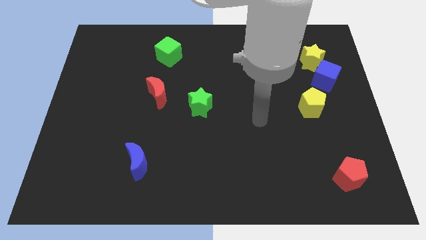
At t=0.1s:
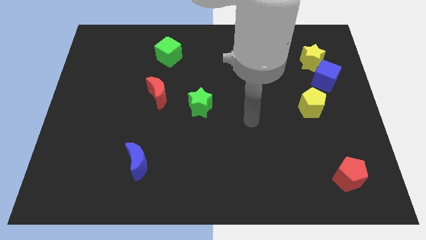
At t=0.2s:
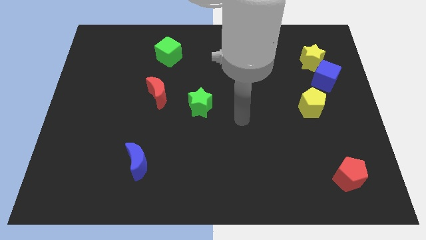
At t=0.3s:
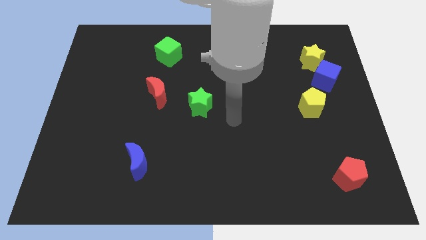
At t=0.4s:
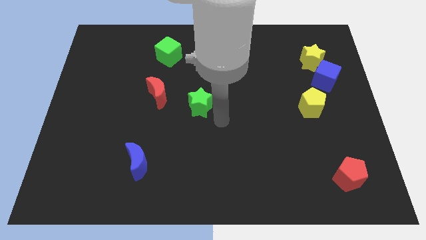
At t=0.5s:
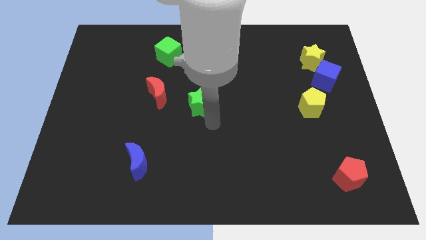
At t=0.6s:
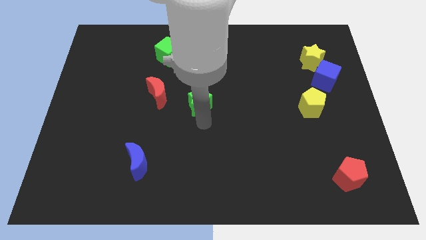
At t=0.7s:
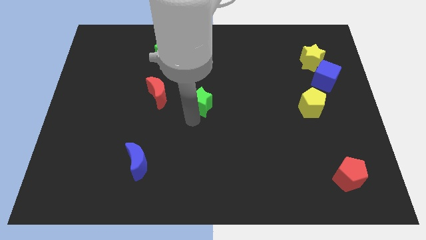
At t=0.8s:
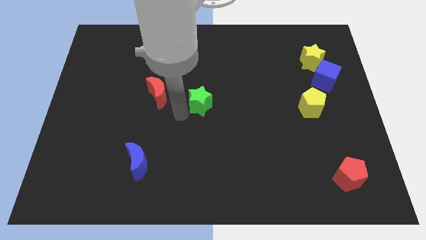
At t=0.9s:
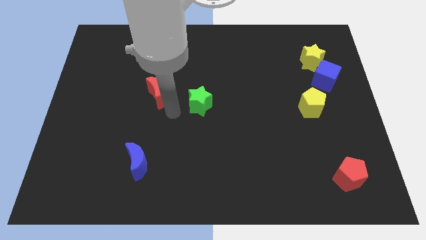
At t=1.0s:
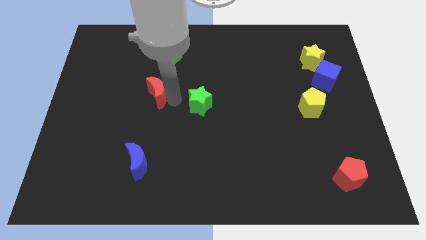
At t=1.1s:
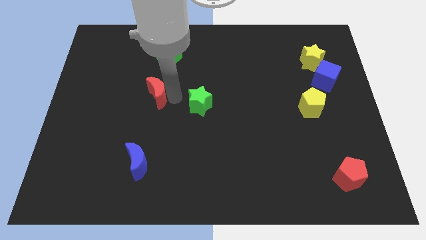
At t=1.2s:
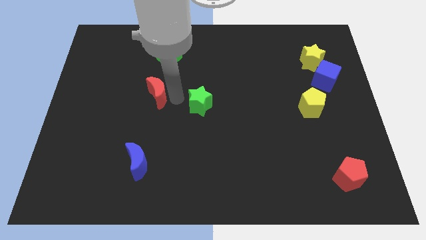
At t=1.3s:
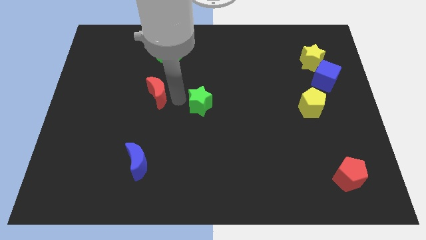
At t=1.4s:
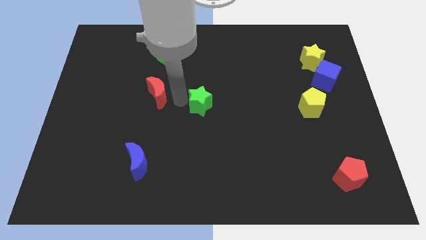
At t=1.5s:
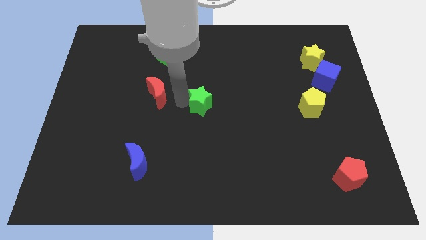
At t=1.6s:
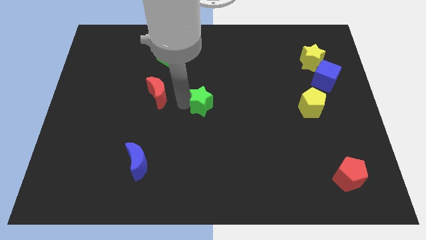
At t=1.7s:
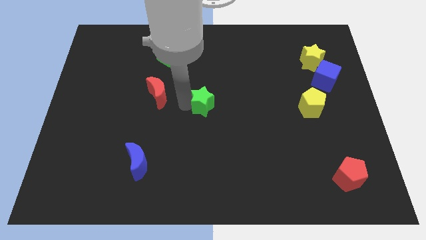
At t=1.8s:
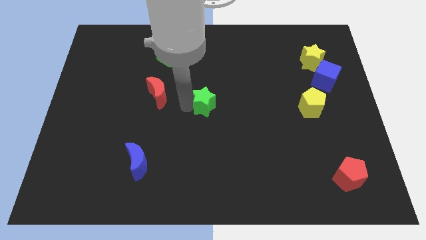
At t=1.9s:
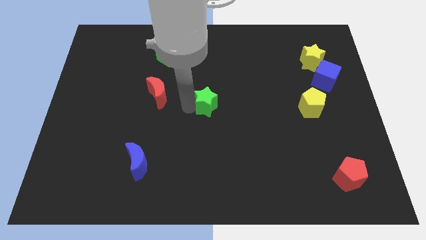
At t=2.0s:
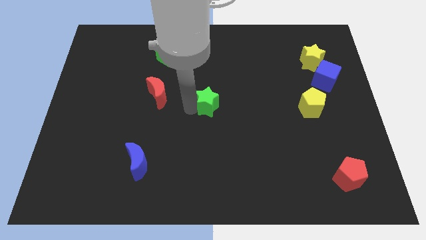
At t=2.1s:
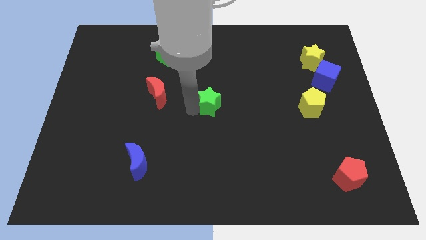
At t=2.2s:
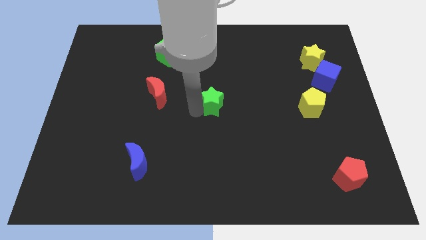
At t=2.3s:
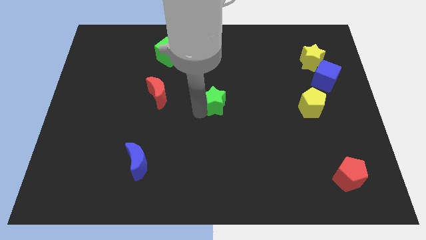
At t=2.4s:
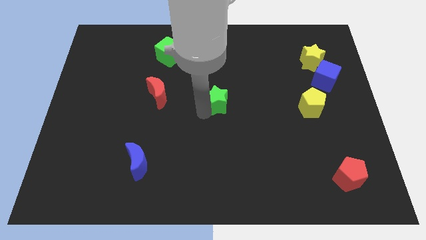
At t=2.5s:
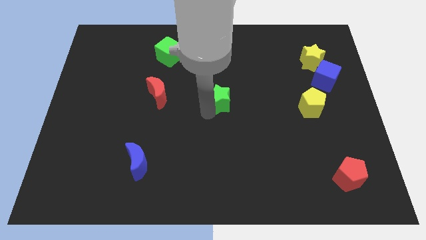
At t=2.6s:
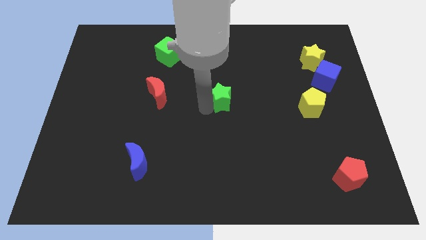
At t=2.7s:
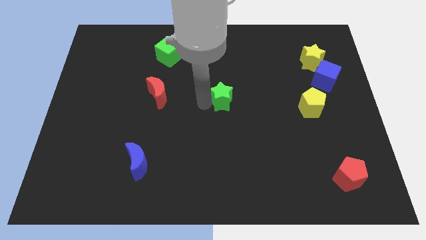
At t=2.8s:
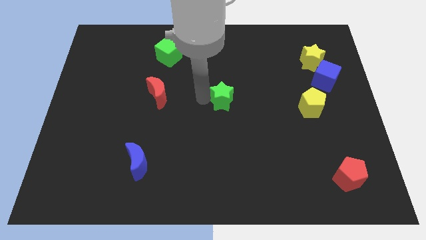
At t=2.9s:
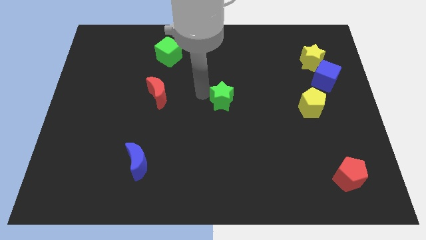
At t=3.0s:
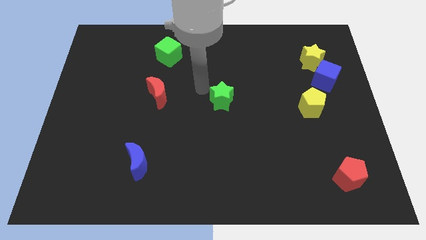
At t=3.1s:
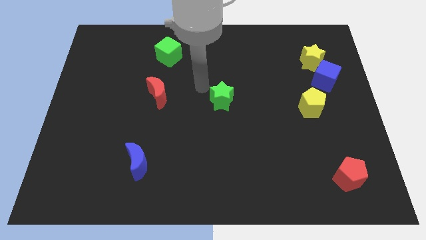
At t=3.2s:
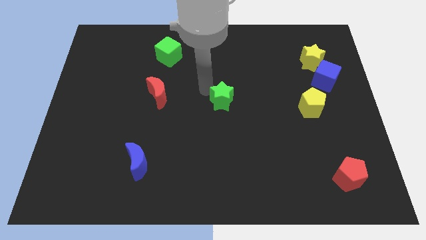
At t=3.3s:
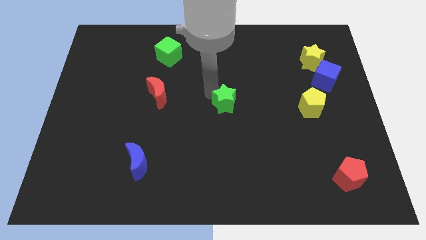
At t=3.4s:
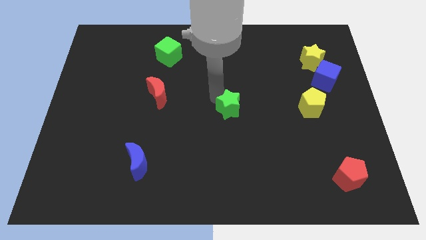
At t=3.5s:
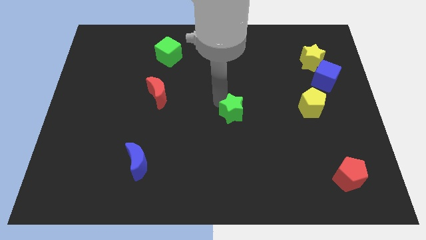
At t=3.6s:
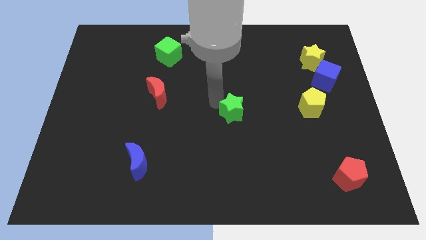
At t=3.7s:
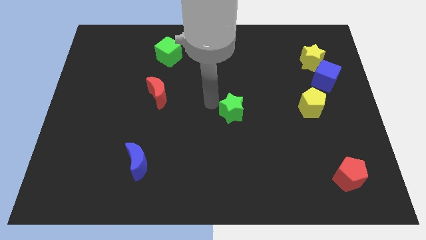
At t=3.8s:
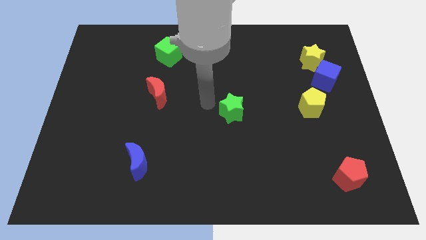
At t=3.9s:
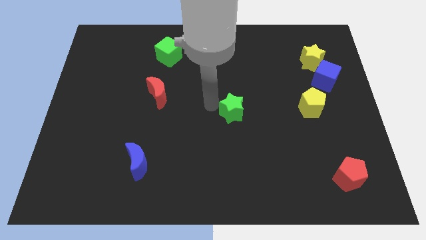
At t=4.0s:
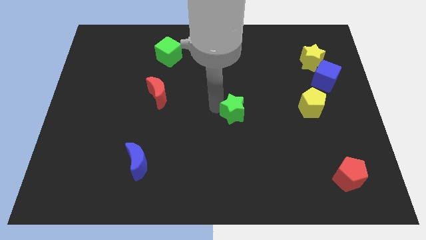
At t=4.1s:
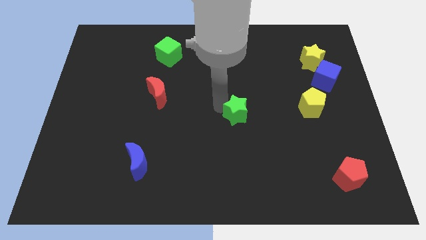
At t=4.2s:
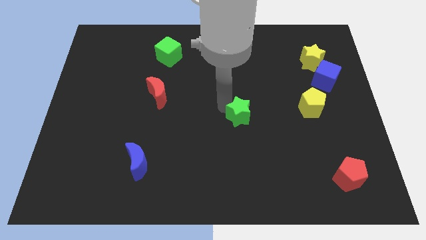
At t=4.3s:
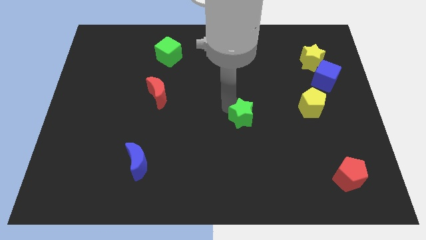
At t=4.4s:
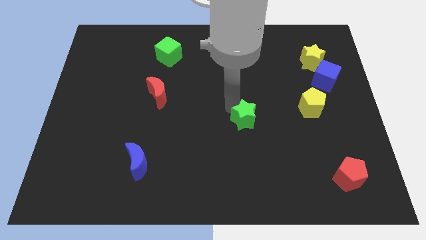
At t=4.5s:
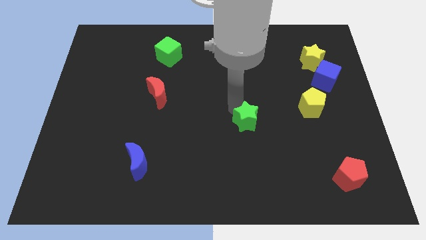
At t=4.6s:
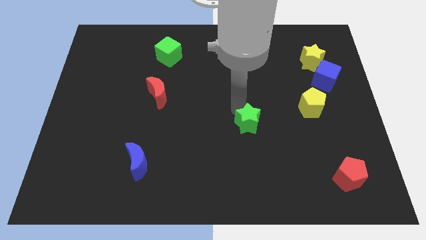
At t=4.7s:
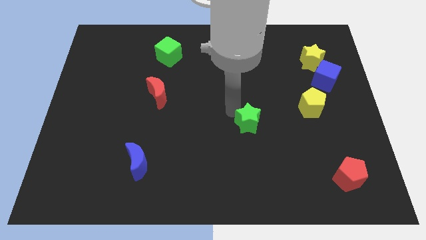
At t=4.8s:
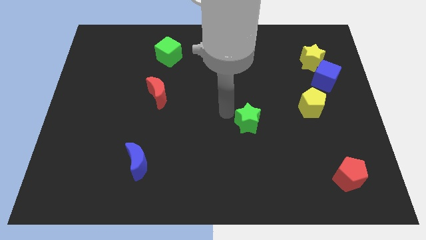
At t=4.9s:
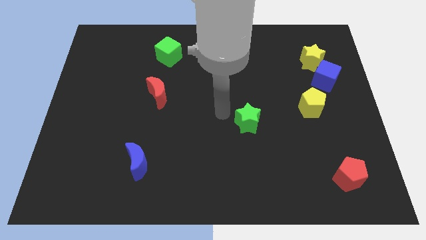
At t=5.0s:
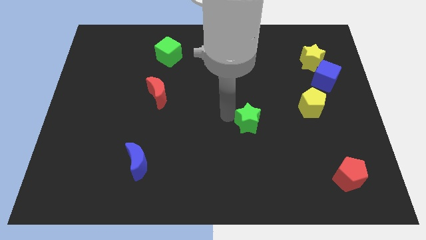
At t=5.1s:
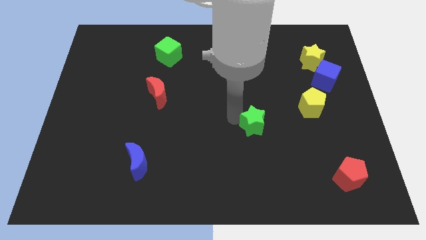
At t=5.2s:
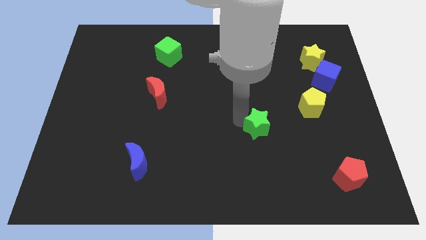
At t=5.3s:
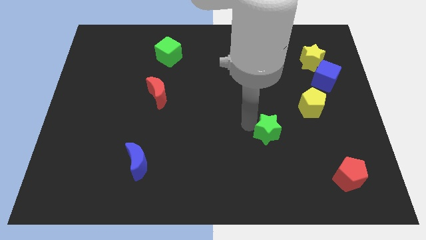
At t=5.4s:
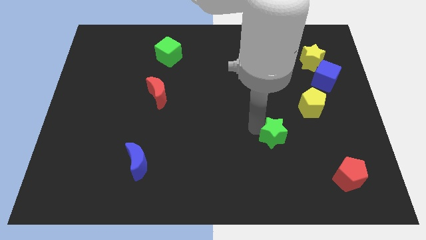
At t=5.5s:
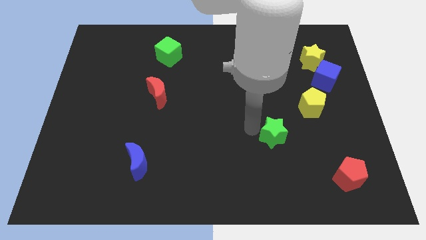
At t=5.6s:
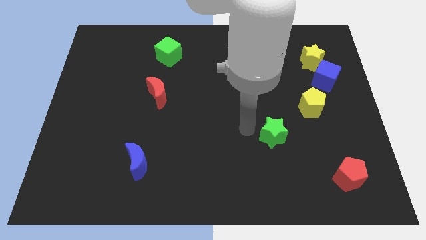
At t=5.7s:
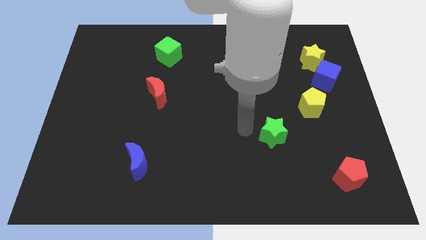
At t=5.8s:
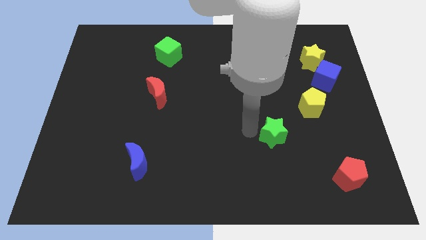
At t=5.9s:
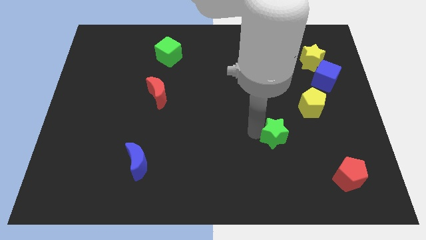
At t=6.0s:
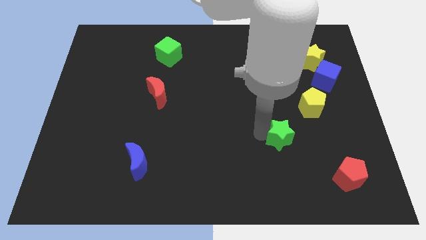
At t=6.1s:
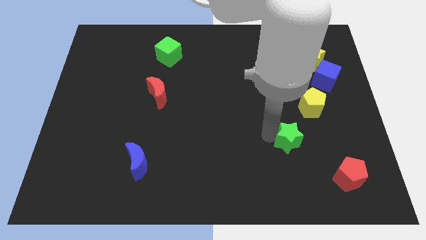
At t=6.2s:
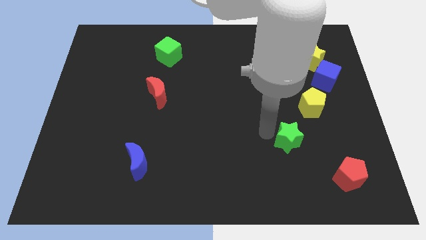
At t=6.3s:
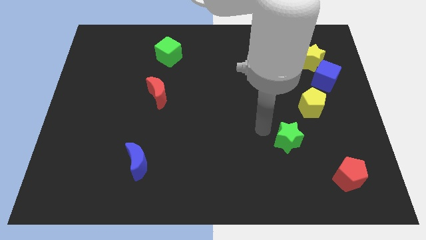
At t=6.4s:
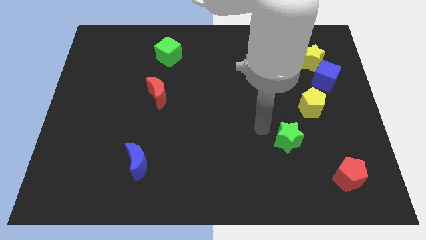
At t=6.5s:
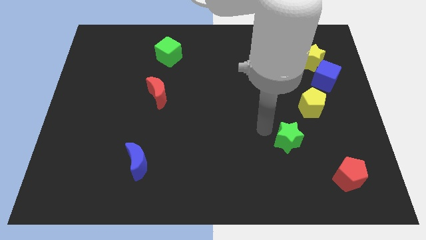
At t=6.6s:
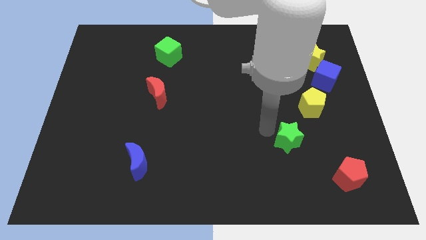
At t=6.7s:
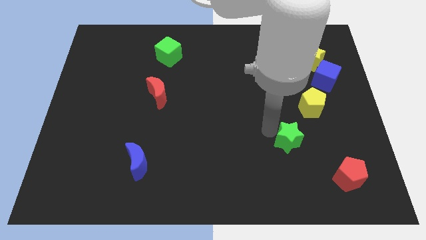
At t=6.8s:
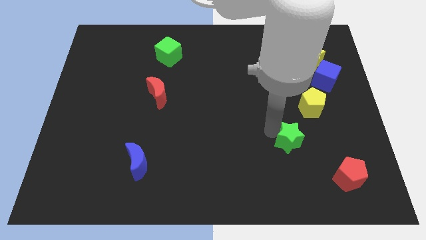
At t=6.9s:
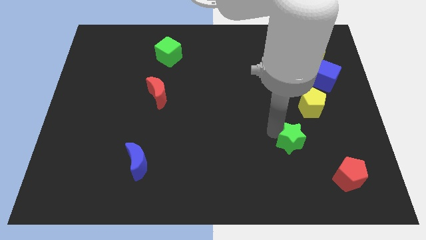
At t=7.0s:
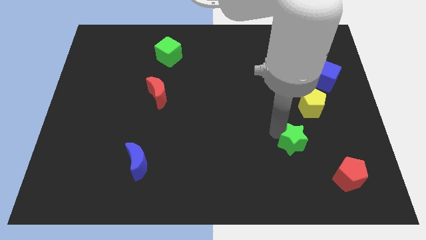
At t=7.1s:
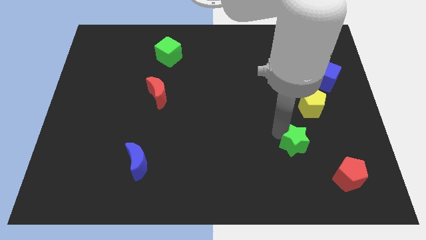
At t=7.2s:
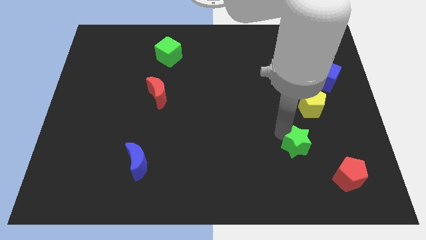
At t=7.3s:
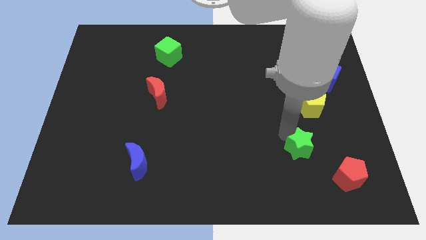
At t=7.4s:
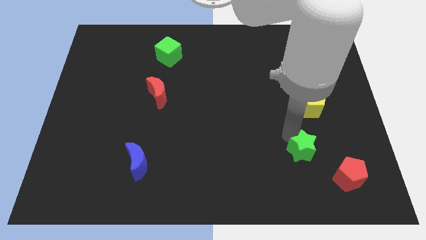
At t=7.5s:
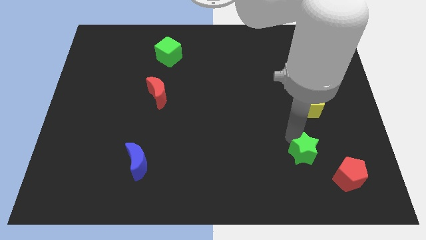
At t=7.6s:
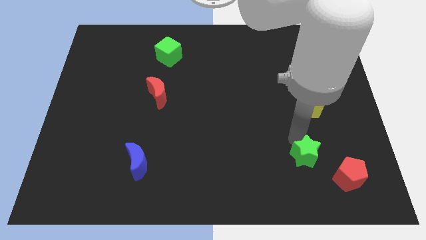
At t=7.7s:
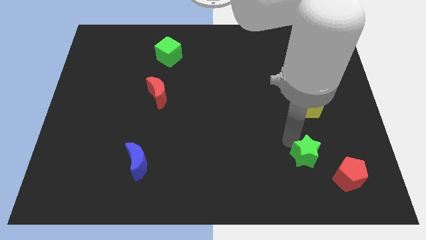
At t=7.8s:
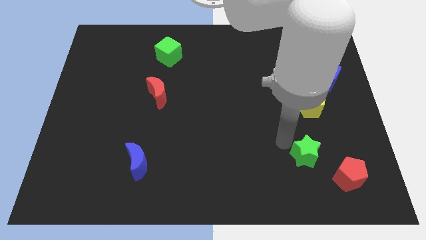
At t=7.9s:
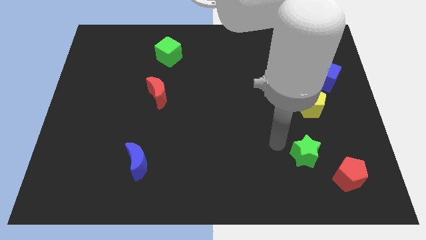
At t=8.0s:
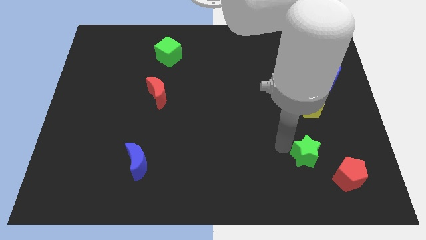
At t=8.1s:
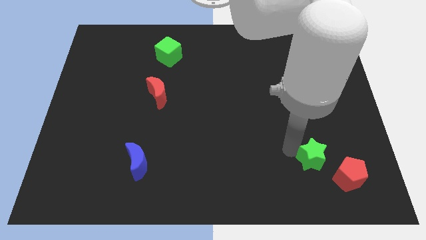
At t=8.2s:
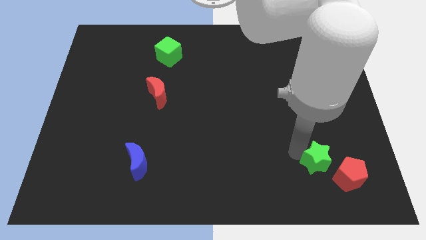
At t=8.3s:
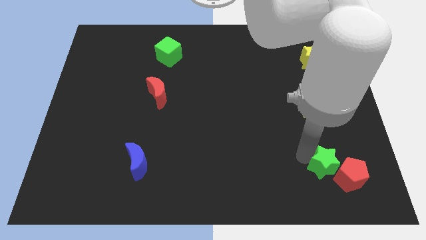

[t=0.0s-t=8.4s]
move the green star close to the red pentagon
